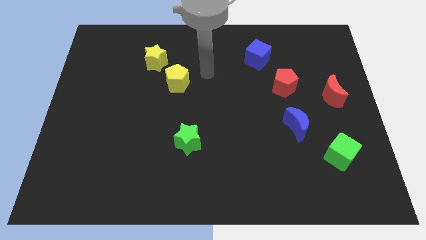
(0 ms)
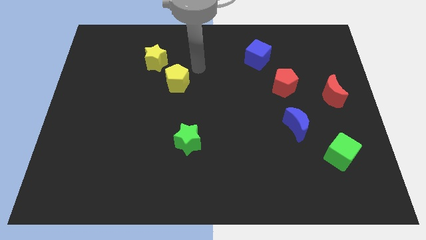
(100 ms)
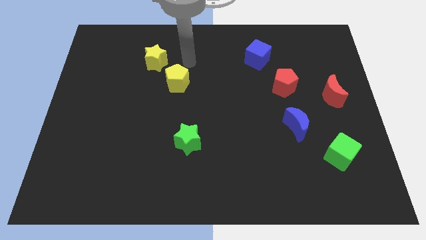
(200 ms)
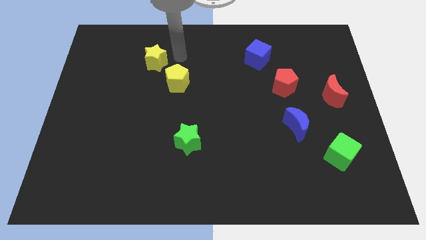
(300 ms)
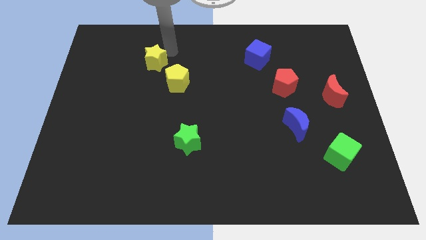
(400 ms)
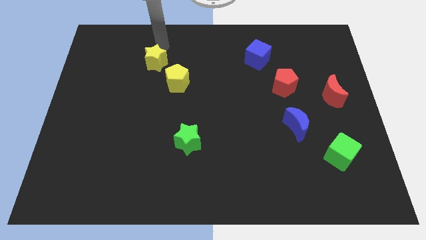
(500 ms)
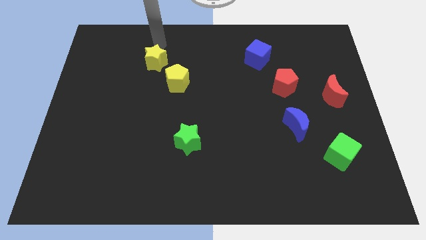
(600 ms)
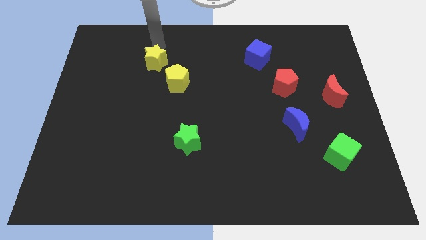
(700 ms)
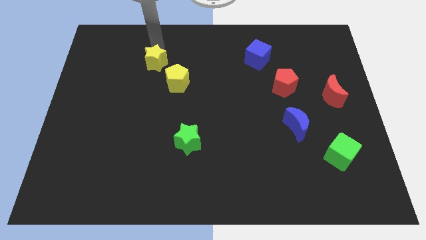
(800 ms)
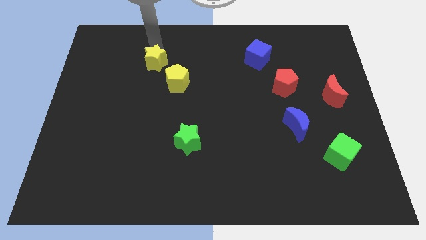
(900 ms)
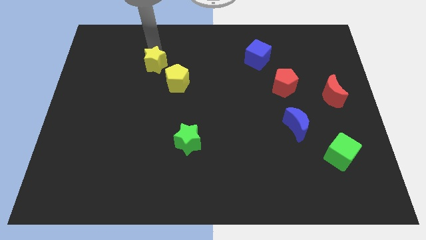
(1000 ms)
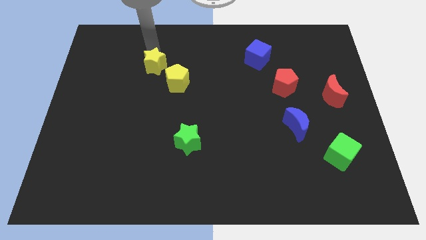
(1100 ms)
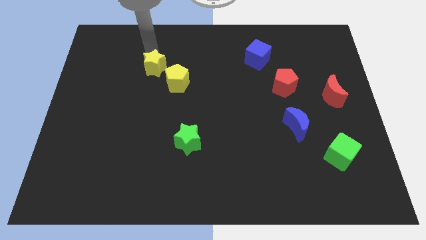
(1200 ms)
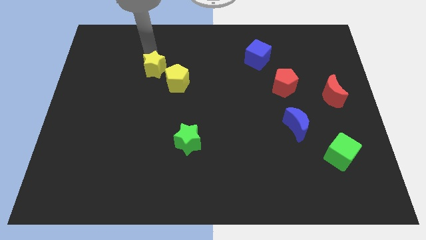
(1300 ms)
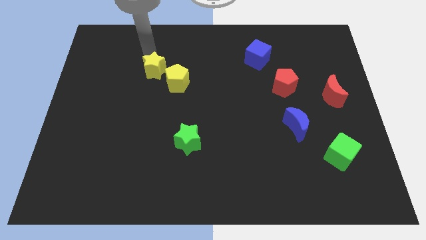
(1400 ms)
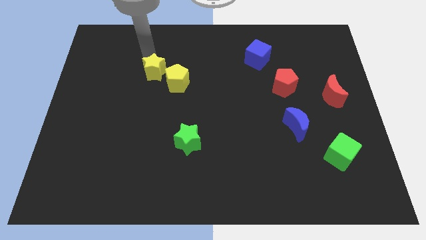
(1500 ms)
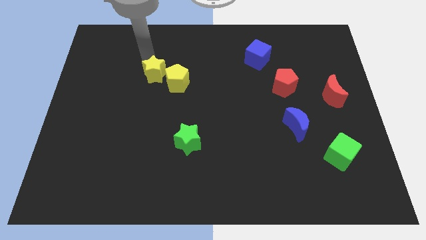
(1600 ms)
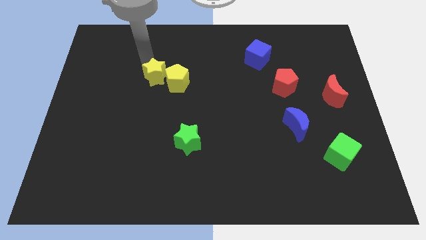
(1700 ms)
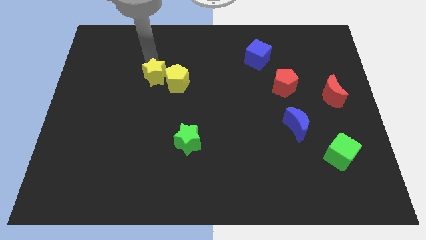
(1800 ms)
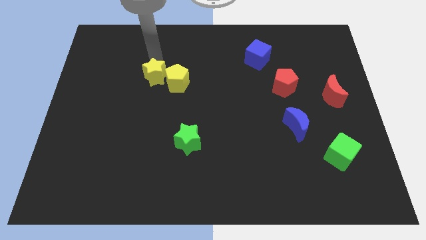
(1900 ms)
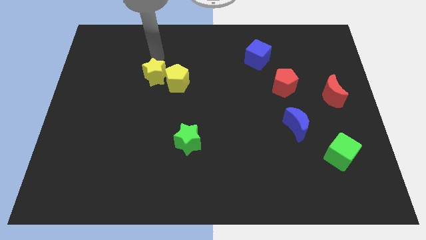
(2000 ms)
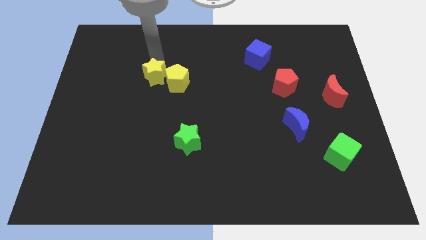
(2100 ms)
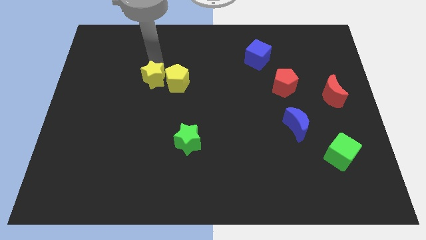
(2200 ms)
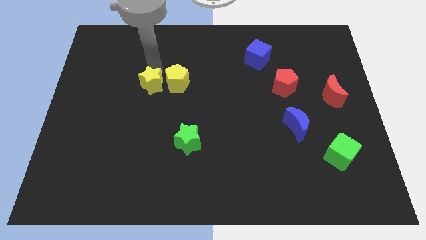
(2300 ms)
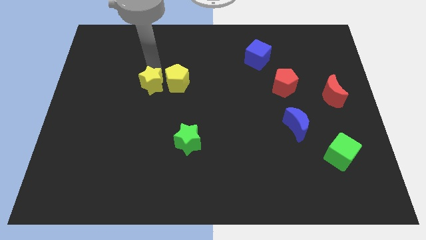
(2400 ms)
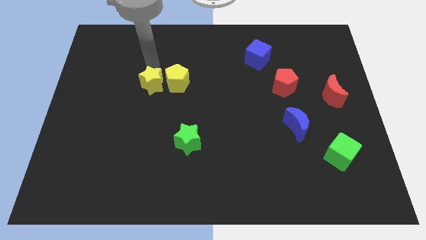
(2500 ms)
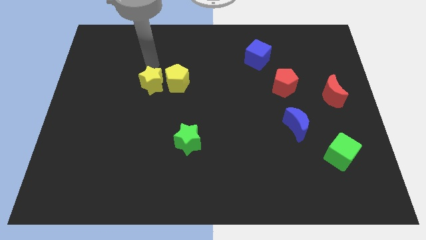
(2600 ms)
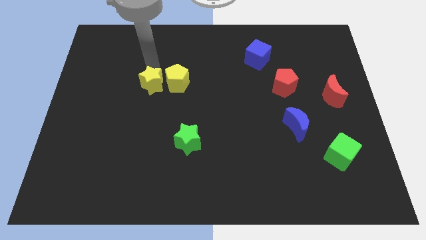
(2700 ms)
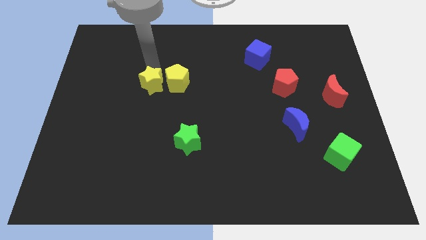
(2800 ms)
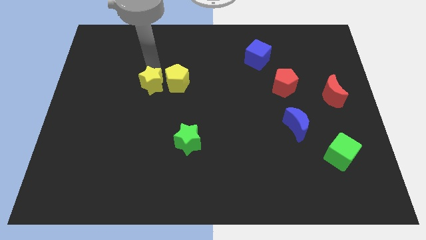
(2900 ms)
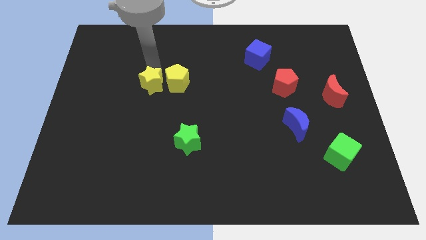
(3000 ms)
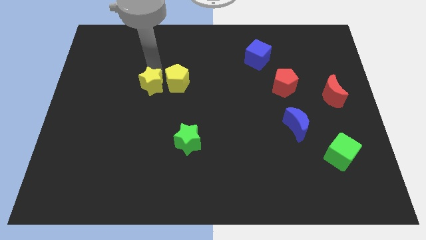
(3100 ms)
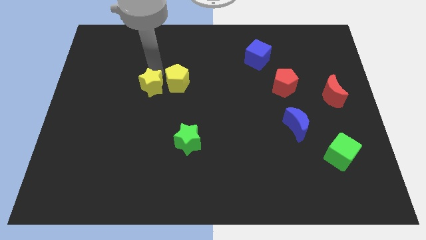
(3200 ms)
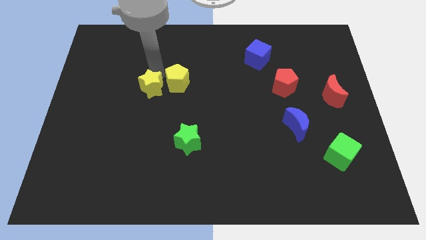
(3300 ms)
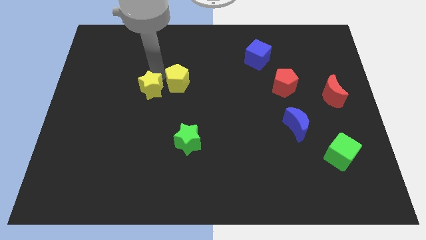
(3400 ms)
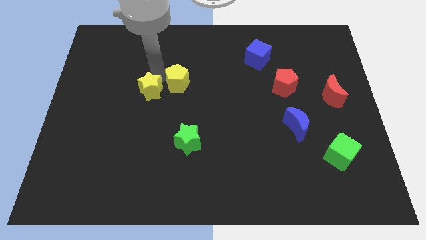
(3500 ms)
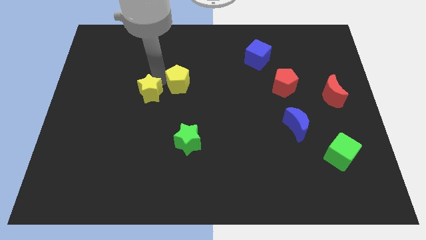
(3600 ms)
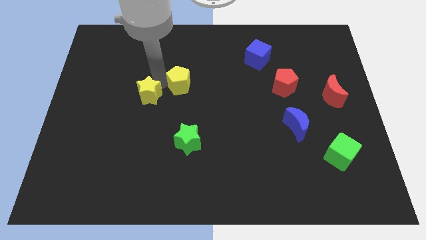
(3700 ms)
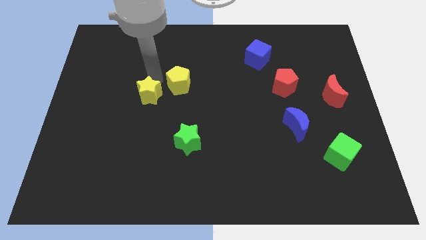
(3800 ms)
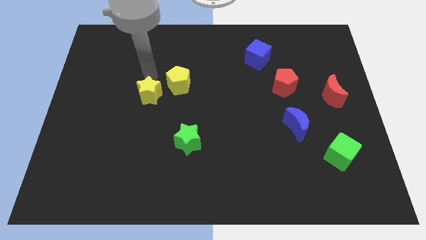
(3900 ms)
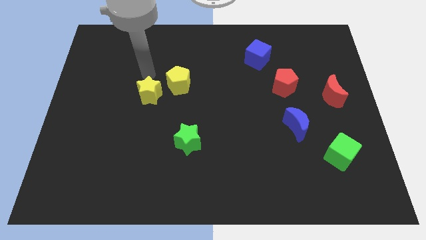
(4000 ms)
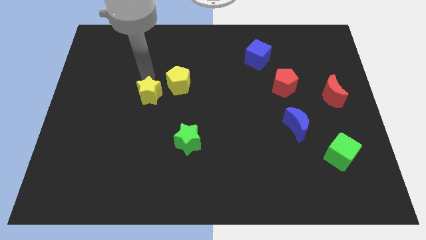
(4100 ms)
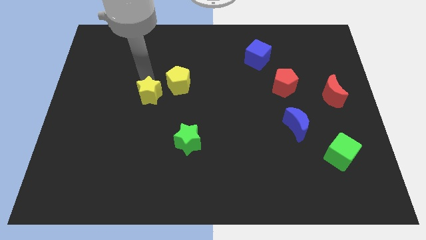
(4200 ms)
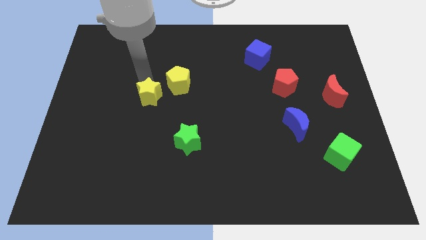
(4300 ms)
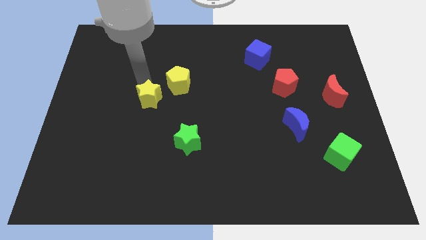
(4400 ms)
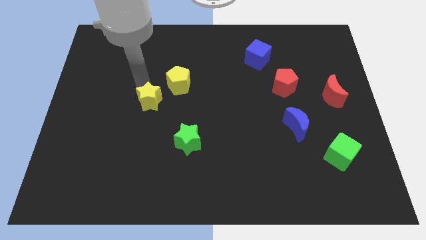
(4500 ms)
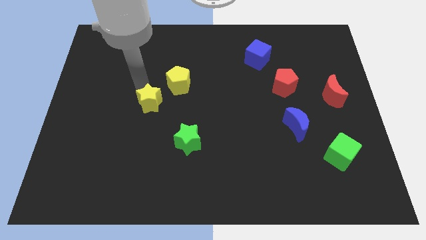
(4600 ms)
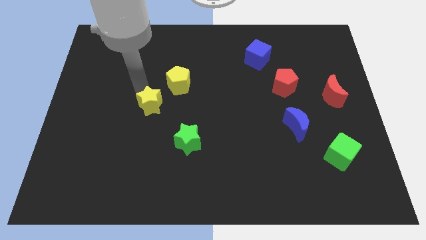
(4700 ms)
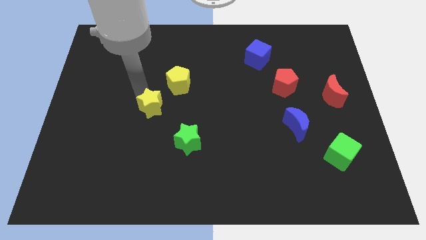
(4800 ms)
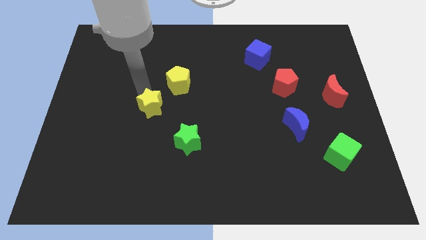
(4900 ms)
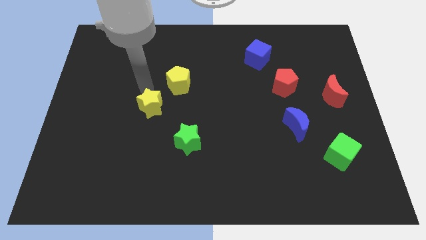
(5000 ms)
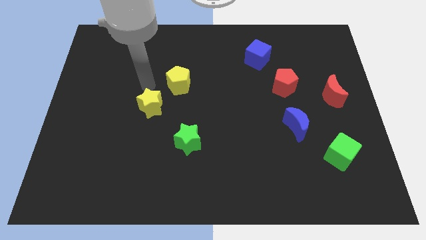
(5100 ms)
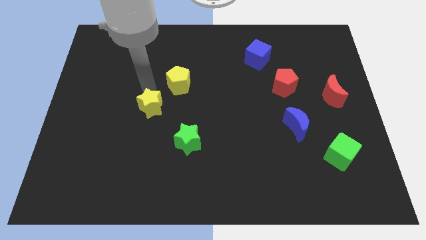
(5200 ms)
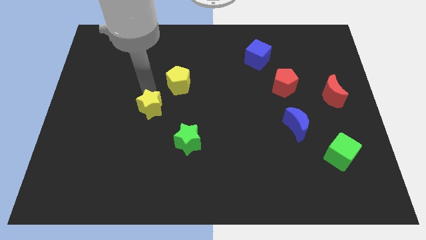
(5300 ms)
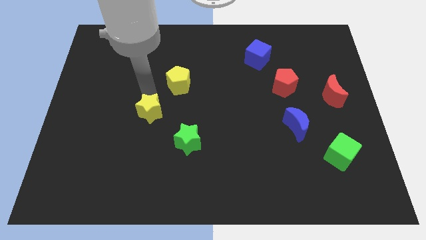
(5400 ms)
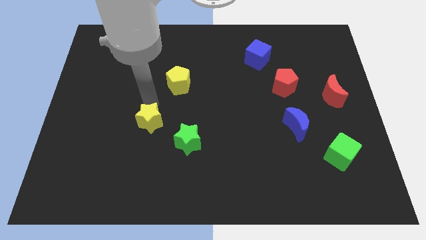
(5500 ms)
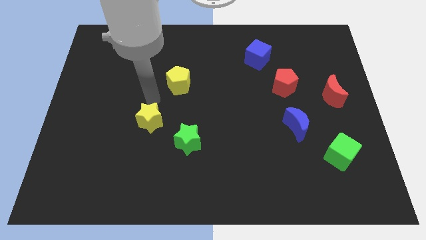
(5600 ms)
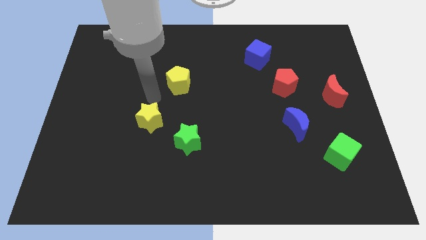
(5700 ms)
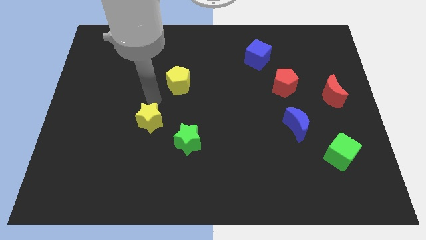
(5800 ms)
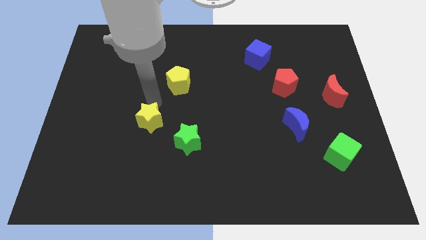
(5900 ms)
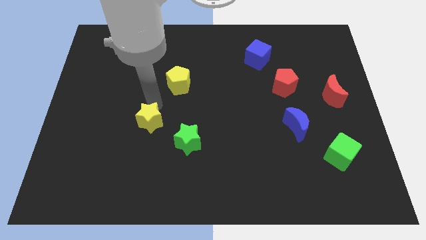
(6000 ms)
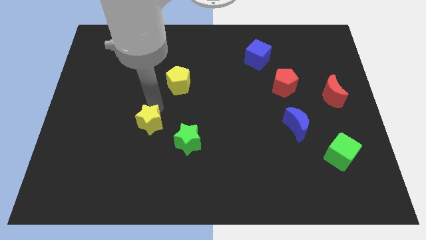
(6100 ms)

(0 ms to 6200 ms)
slide the yellow star down

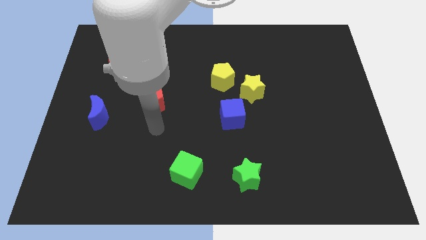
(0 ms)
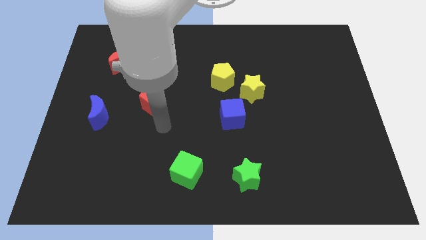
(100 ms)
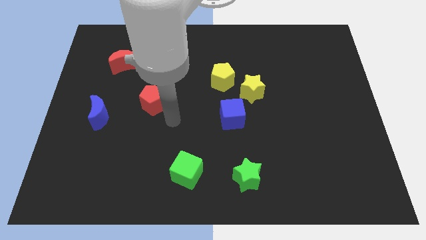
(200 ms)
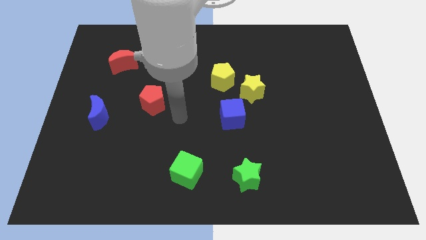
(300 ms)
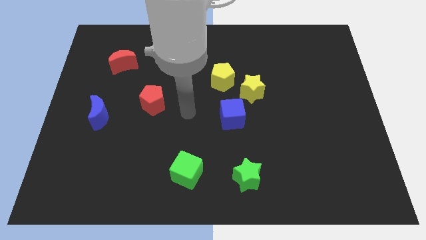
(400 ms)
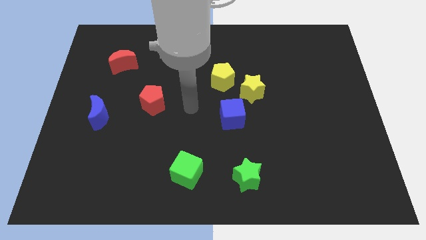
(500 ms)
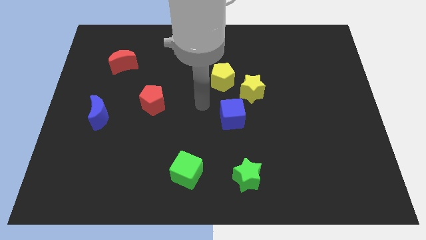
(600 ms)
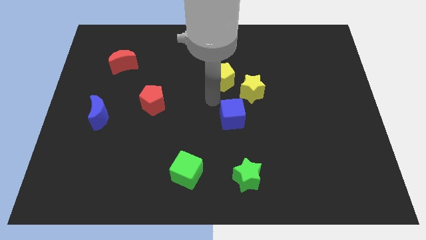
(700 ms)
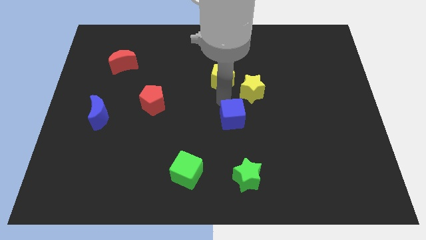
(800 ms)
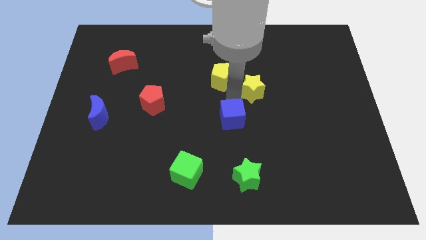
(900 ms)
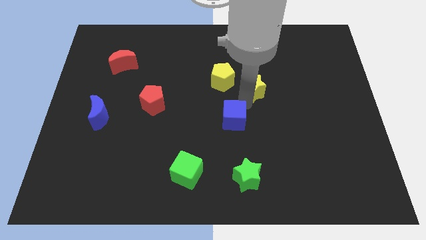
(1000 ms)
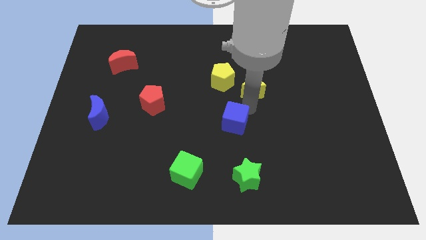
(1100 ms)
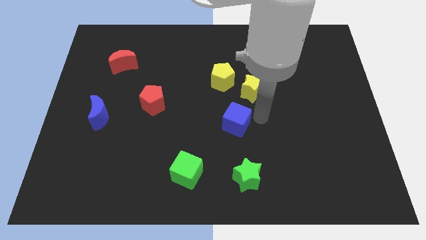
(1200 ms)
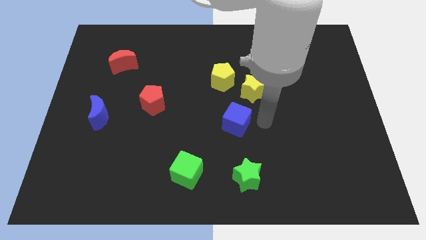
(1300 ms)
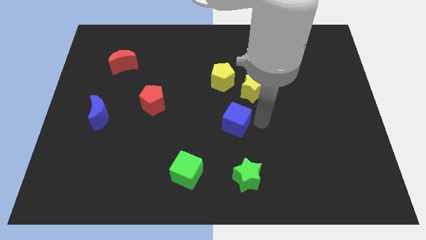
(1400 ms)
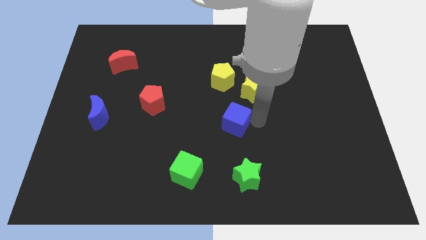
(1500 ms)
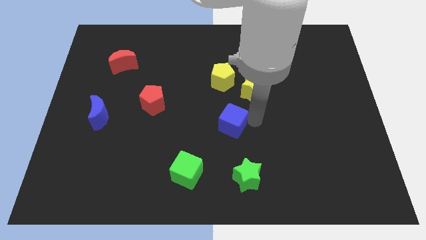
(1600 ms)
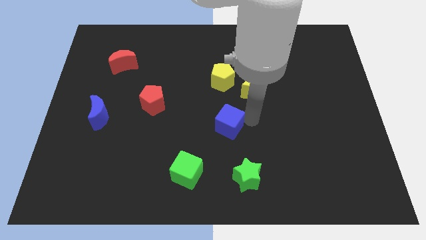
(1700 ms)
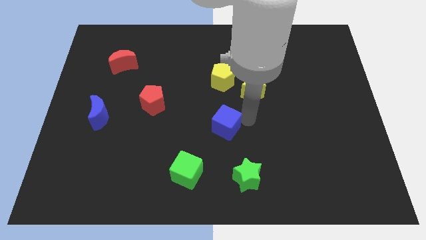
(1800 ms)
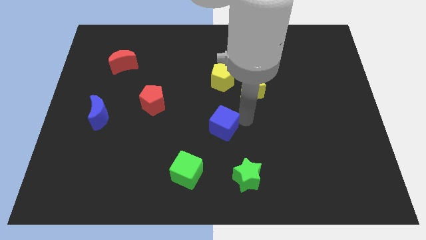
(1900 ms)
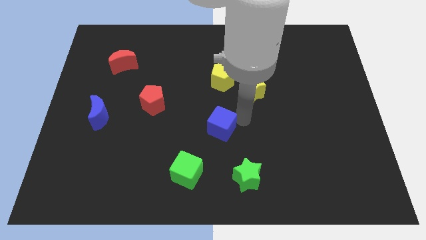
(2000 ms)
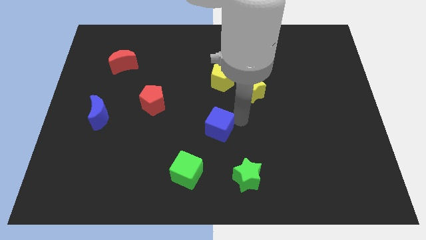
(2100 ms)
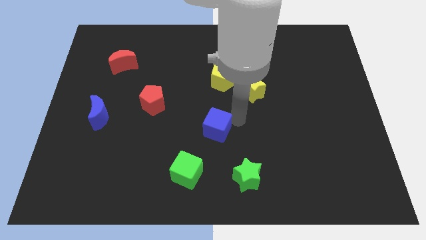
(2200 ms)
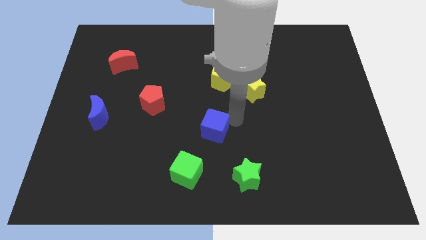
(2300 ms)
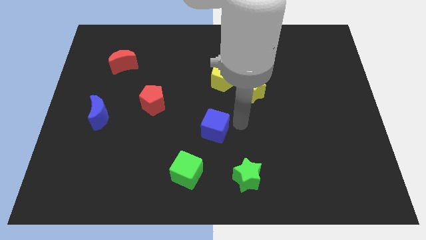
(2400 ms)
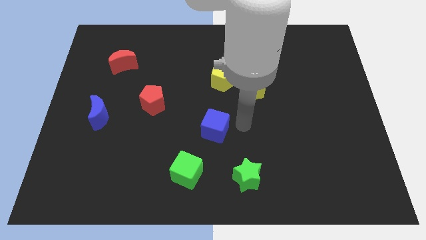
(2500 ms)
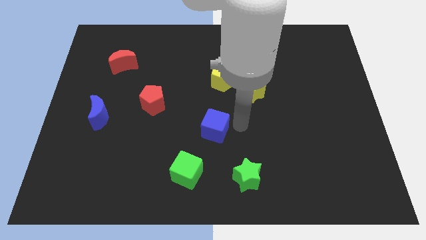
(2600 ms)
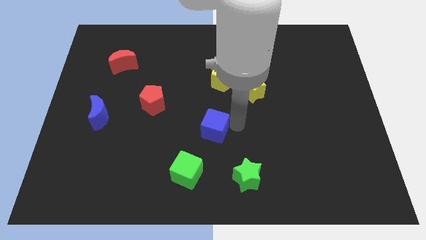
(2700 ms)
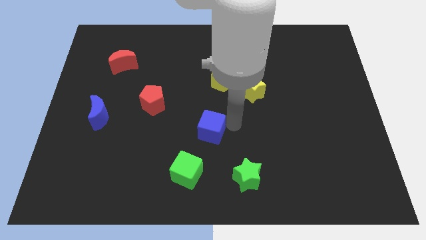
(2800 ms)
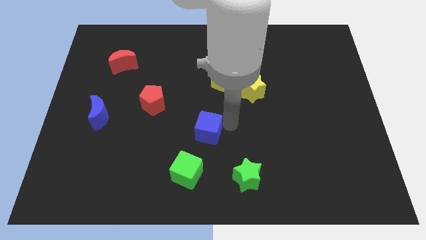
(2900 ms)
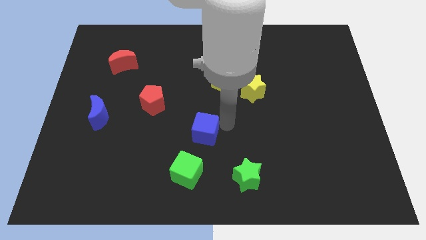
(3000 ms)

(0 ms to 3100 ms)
slide the blue cube a little bit diagonally downwards and left
